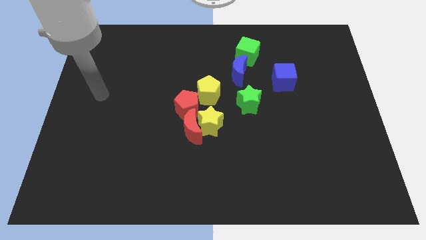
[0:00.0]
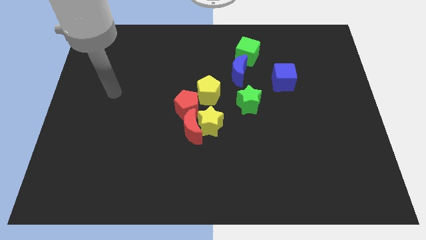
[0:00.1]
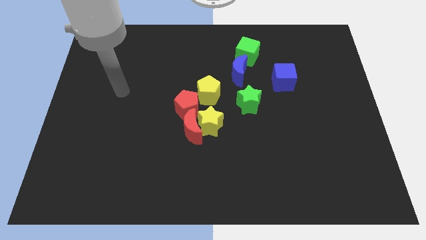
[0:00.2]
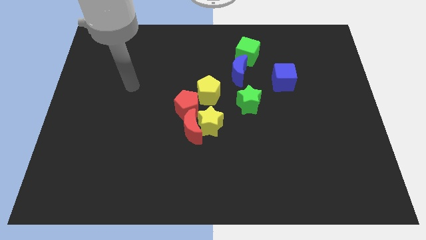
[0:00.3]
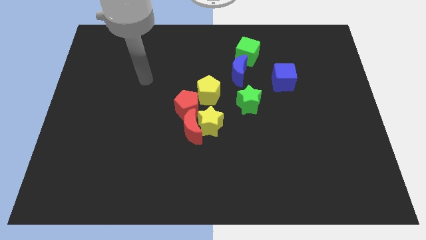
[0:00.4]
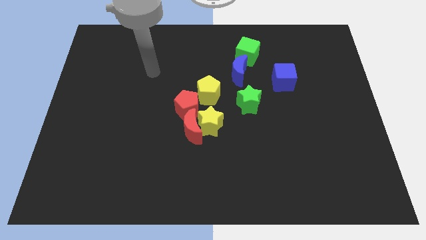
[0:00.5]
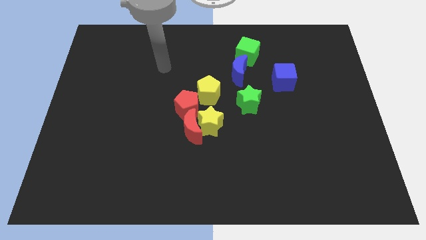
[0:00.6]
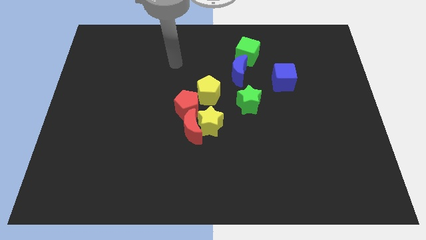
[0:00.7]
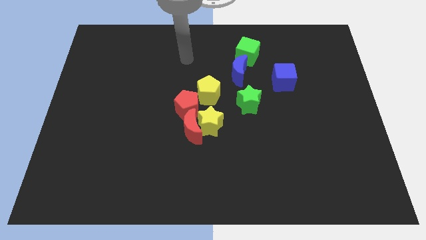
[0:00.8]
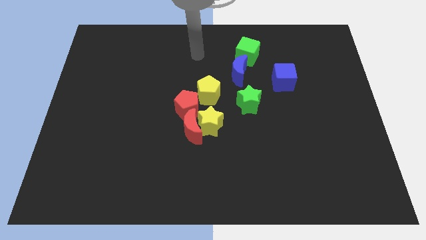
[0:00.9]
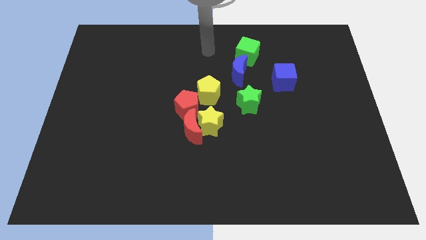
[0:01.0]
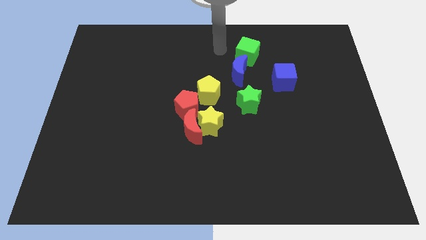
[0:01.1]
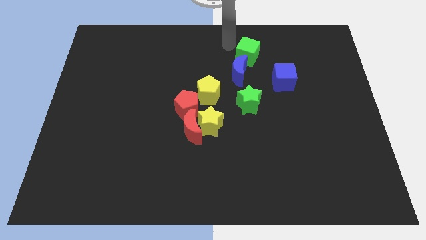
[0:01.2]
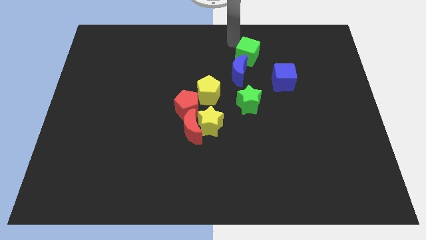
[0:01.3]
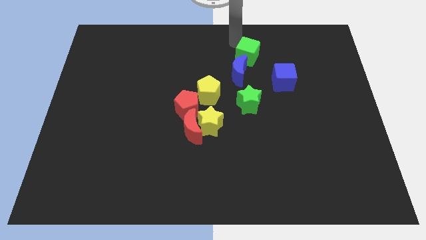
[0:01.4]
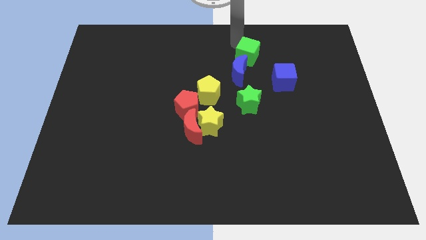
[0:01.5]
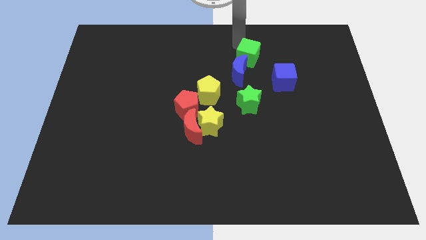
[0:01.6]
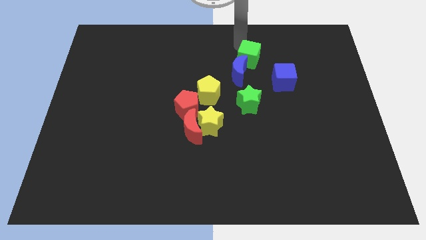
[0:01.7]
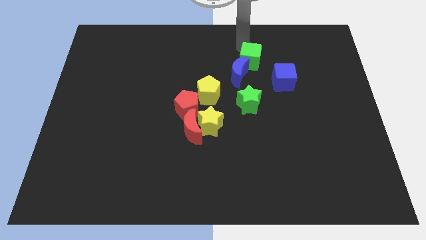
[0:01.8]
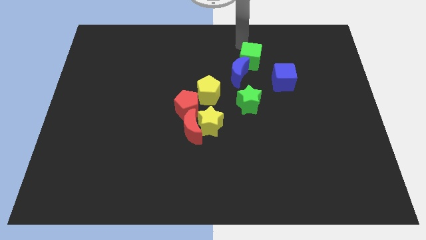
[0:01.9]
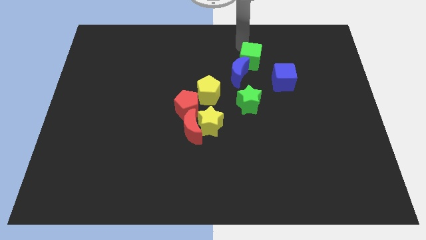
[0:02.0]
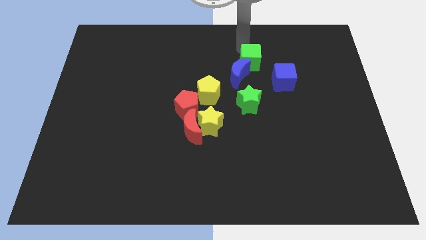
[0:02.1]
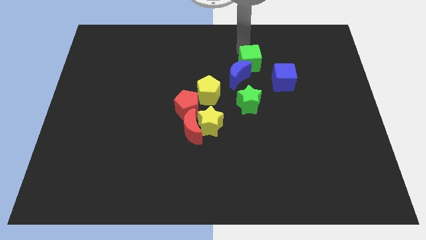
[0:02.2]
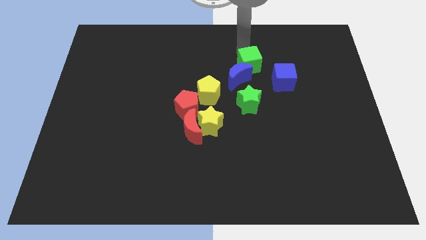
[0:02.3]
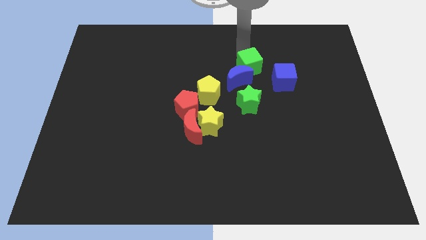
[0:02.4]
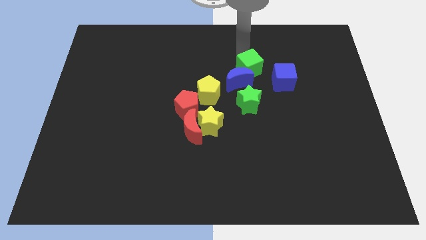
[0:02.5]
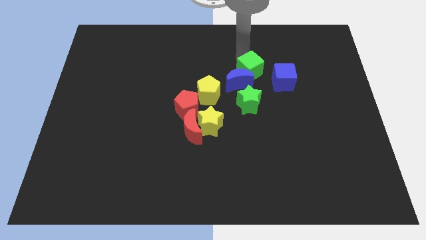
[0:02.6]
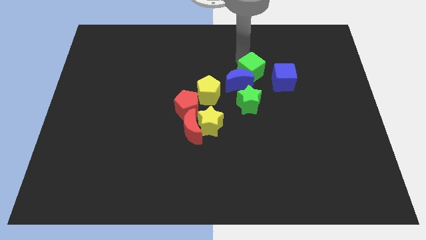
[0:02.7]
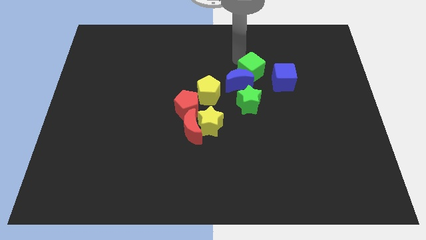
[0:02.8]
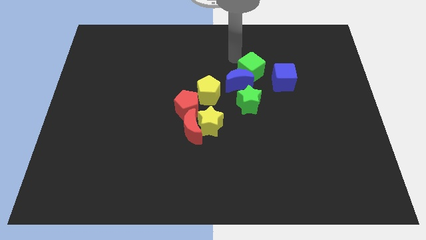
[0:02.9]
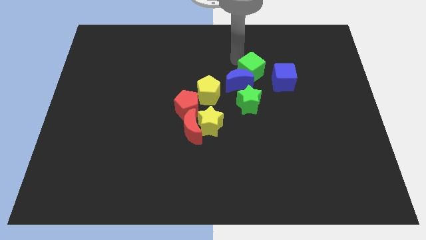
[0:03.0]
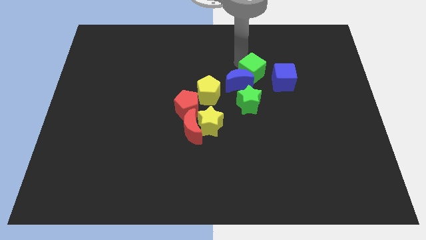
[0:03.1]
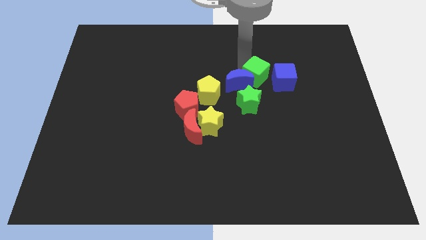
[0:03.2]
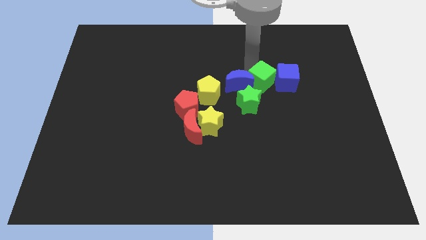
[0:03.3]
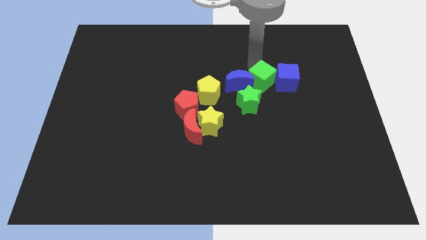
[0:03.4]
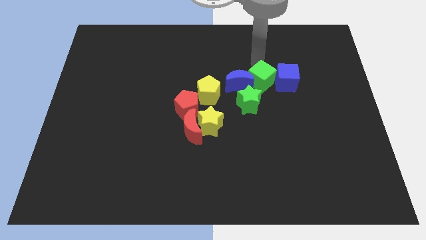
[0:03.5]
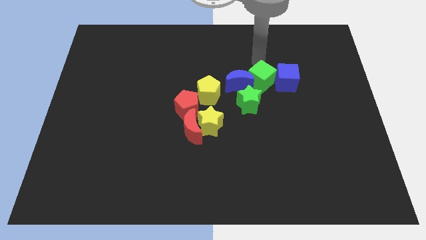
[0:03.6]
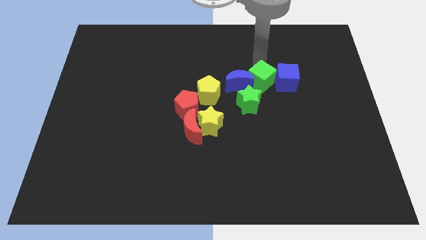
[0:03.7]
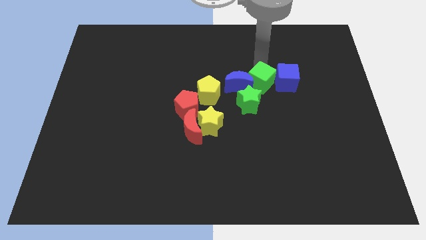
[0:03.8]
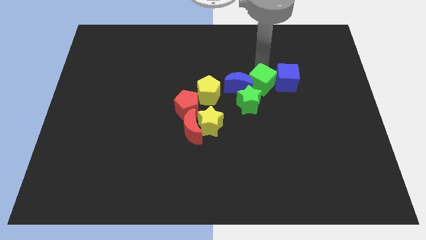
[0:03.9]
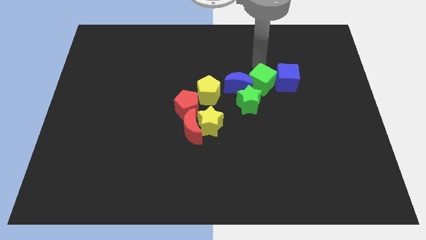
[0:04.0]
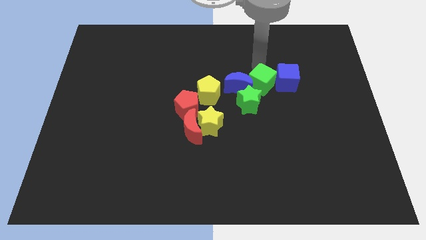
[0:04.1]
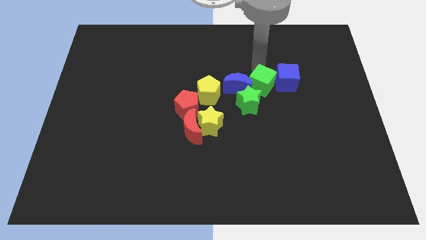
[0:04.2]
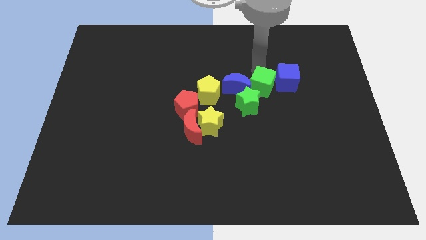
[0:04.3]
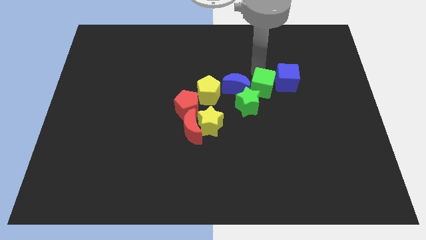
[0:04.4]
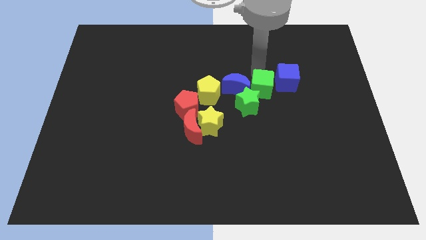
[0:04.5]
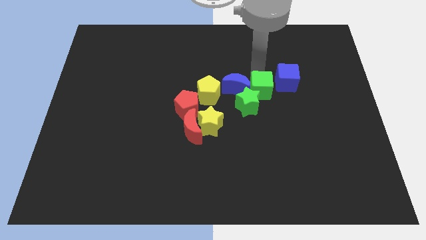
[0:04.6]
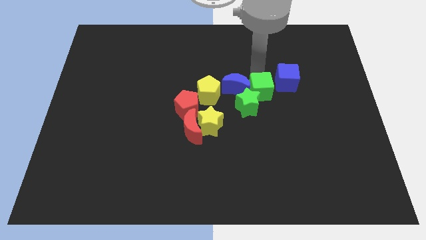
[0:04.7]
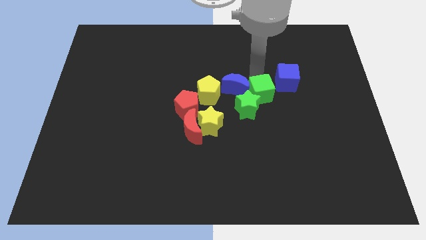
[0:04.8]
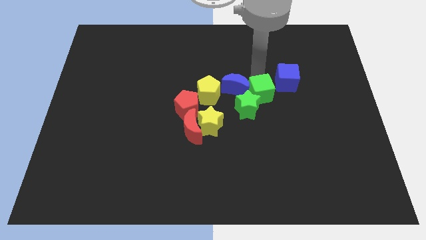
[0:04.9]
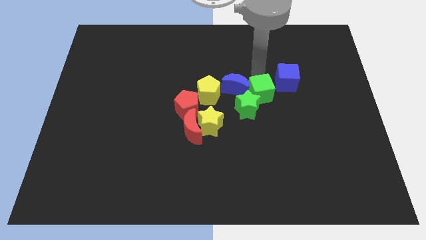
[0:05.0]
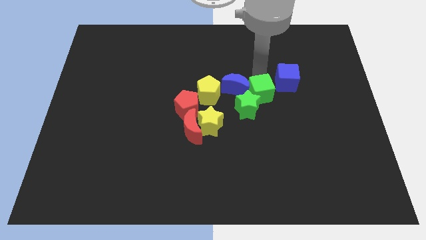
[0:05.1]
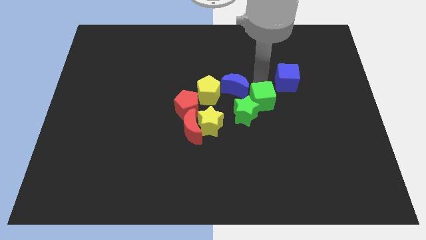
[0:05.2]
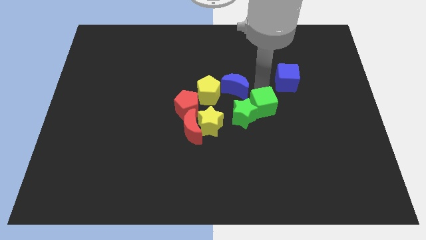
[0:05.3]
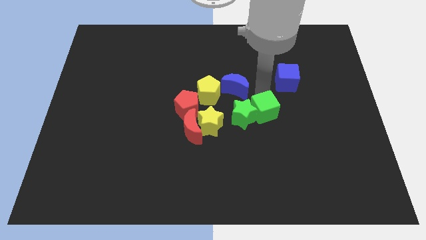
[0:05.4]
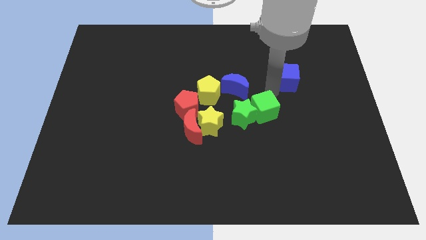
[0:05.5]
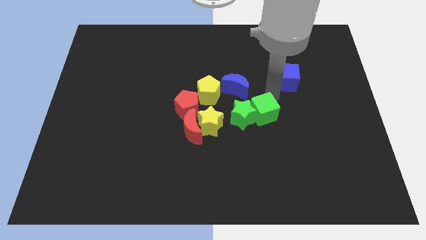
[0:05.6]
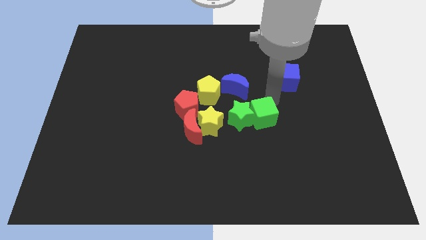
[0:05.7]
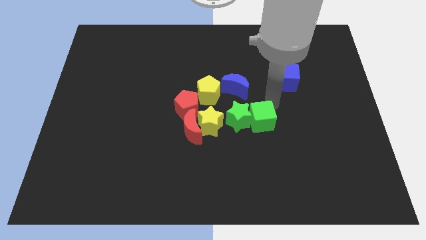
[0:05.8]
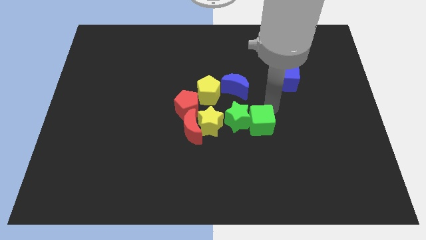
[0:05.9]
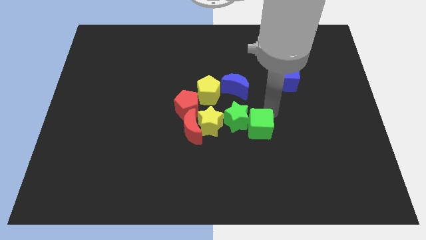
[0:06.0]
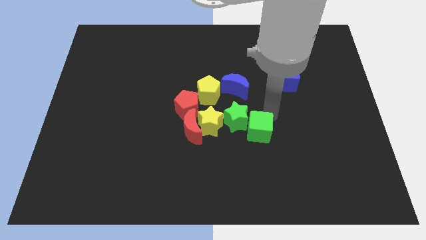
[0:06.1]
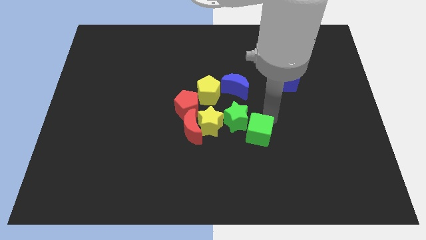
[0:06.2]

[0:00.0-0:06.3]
slide the green cube to the bottom of the green star

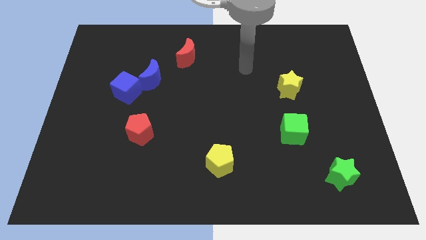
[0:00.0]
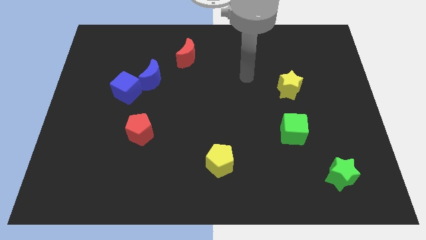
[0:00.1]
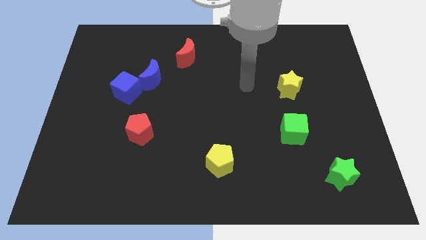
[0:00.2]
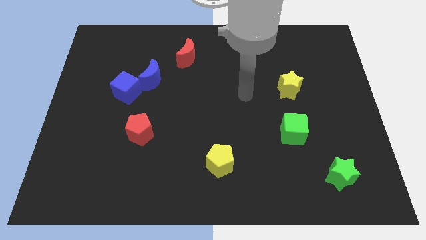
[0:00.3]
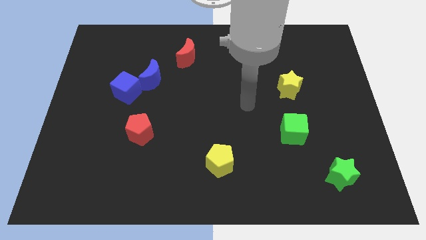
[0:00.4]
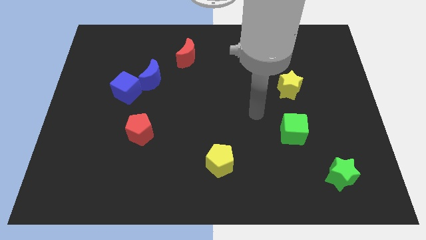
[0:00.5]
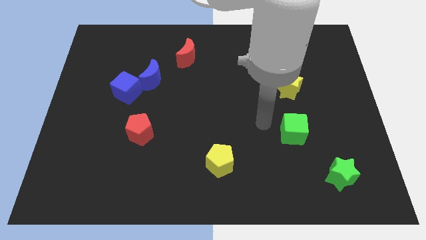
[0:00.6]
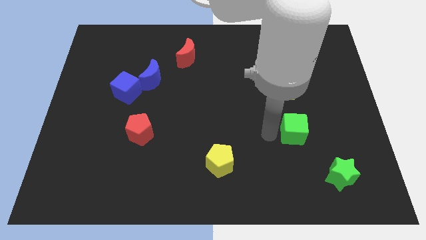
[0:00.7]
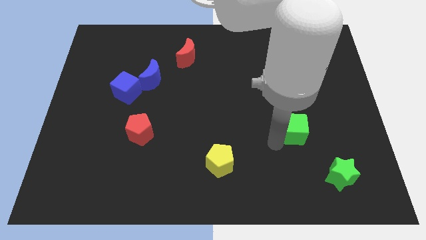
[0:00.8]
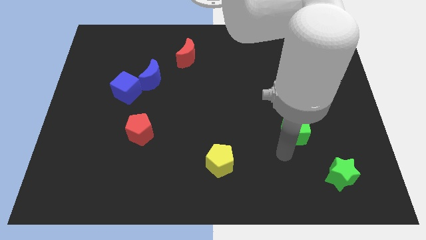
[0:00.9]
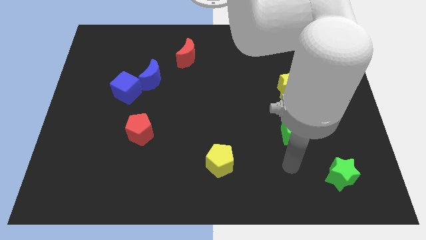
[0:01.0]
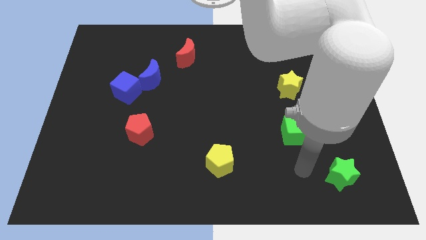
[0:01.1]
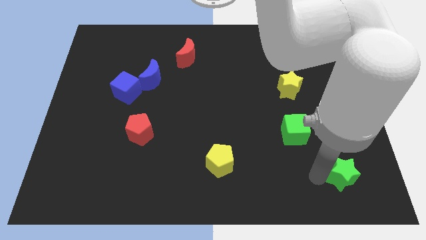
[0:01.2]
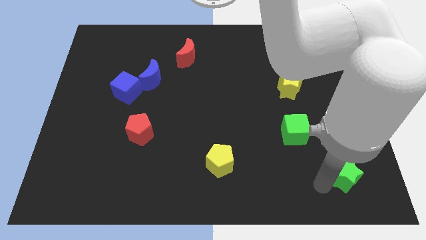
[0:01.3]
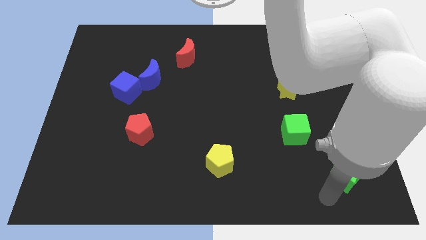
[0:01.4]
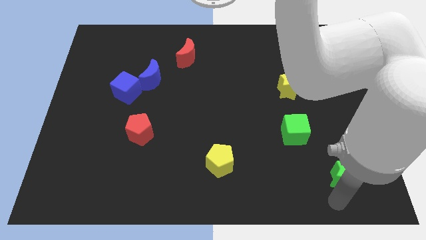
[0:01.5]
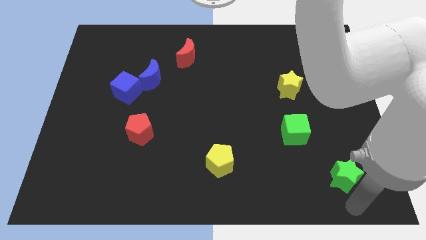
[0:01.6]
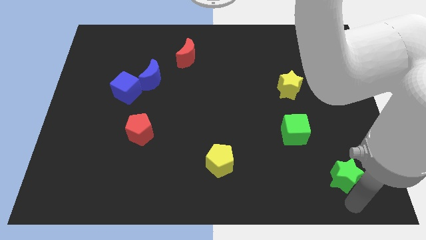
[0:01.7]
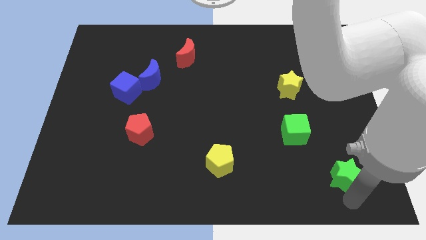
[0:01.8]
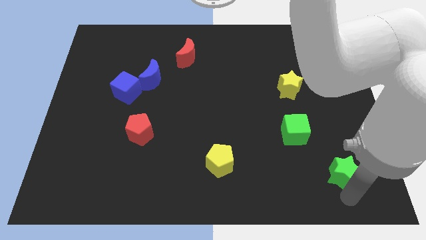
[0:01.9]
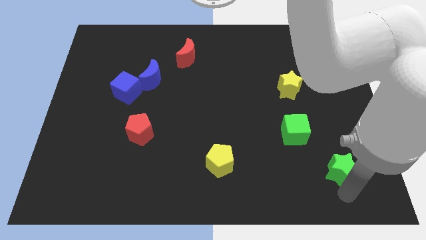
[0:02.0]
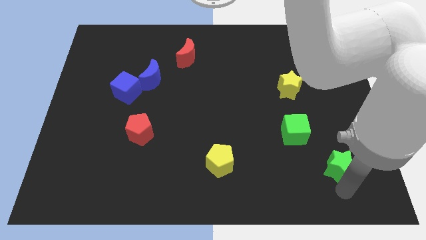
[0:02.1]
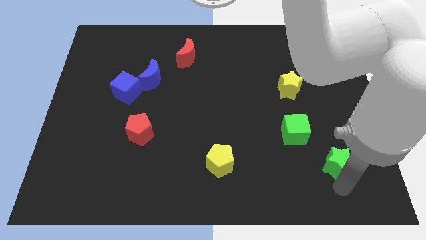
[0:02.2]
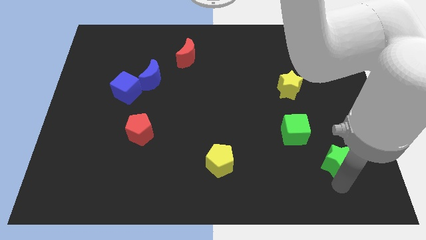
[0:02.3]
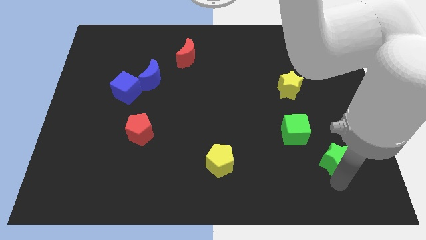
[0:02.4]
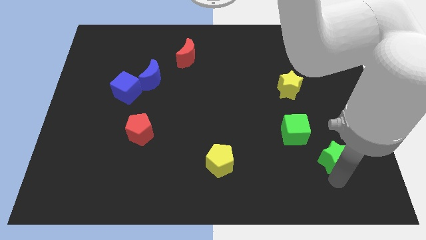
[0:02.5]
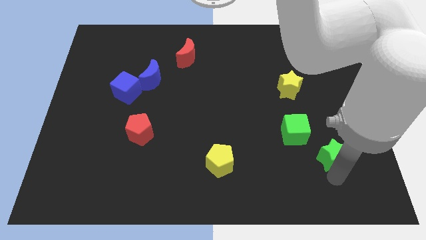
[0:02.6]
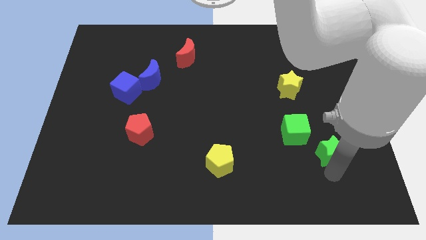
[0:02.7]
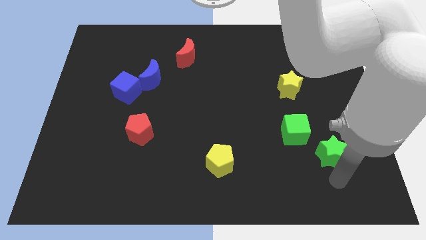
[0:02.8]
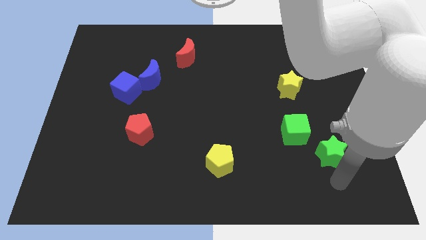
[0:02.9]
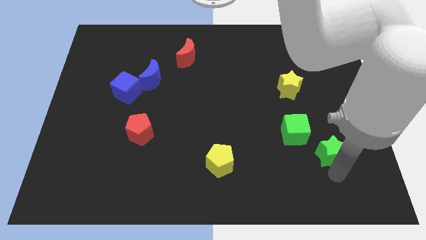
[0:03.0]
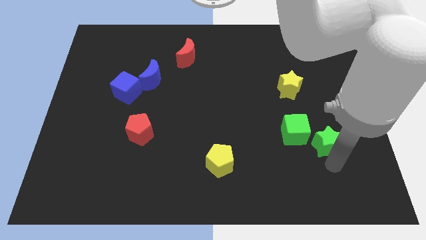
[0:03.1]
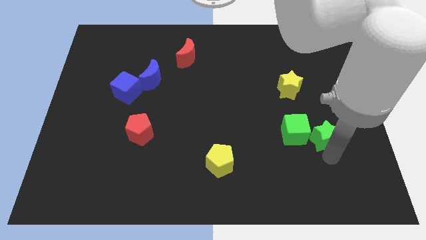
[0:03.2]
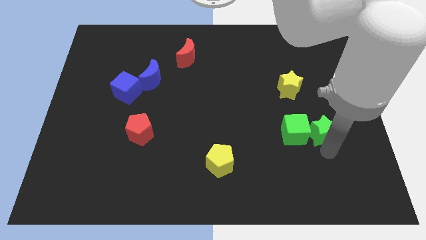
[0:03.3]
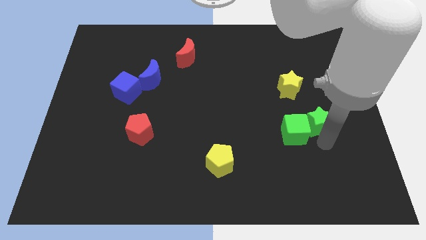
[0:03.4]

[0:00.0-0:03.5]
slide the green star to the bottom right of the yellow star
